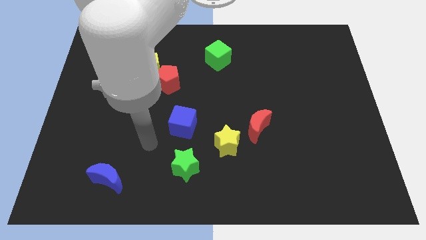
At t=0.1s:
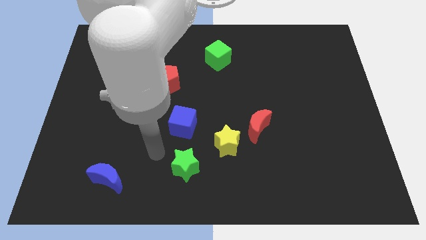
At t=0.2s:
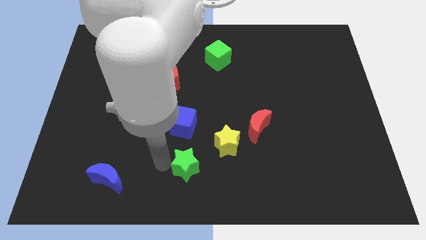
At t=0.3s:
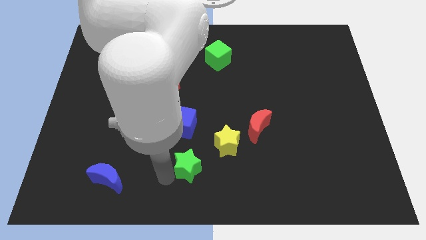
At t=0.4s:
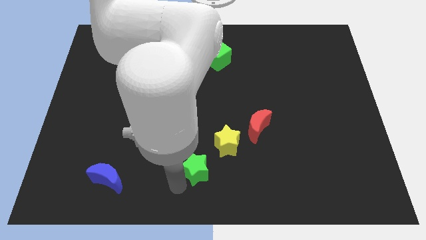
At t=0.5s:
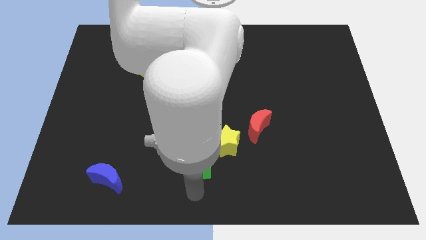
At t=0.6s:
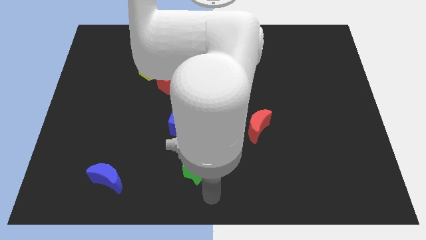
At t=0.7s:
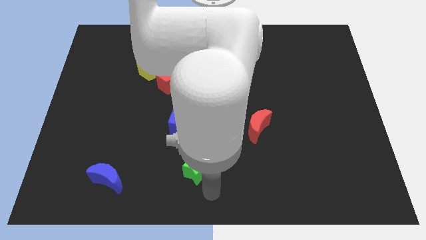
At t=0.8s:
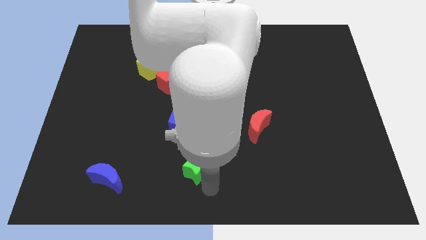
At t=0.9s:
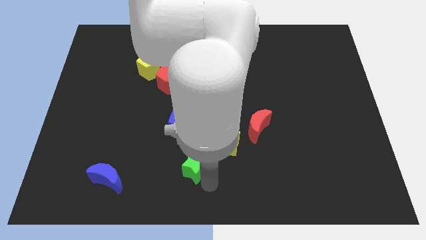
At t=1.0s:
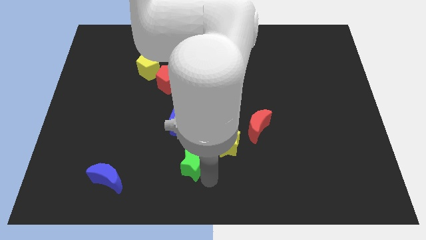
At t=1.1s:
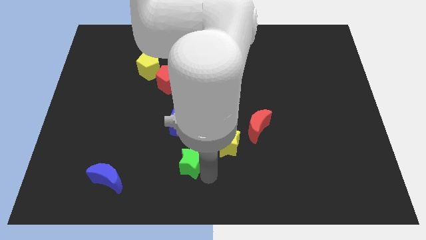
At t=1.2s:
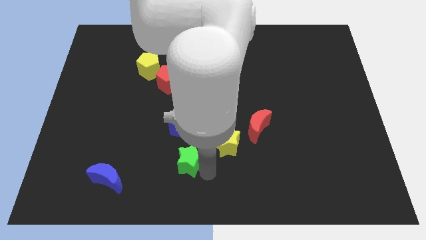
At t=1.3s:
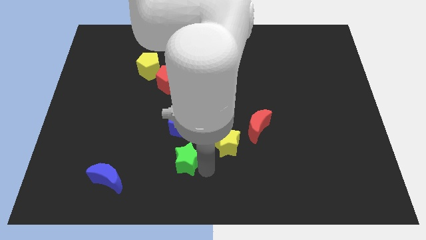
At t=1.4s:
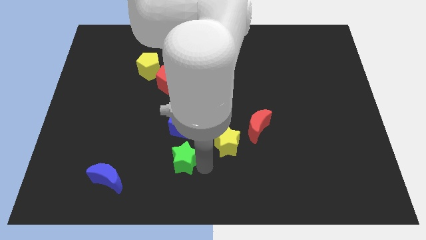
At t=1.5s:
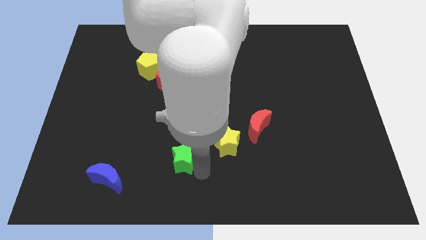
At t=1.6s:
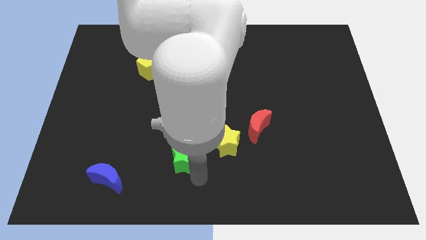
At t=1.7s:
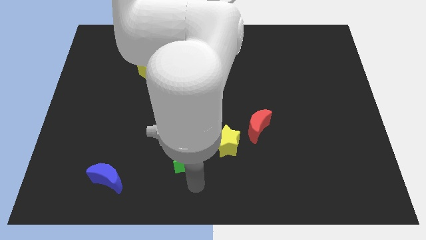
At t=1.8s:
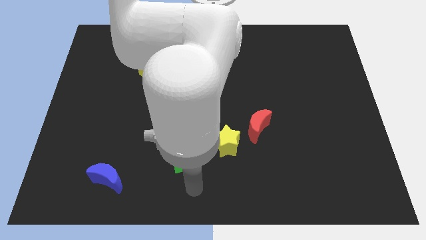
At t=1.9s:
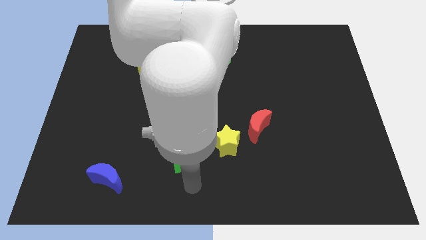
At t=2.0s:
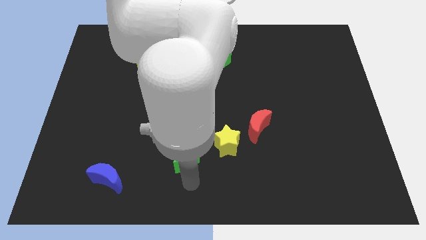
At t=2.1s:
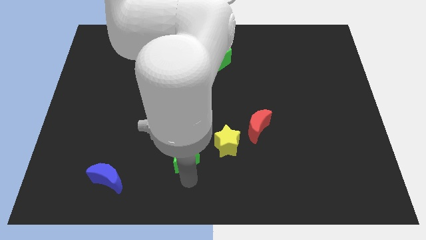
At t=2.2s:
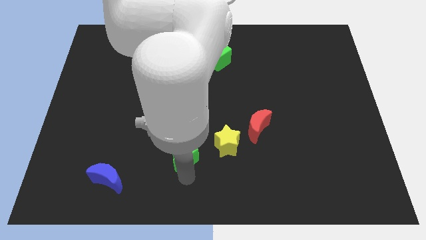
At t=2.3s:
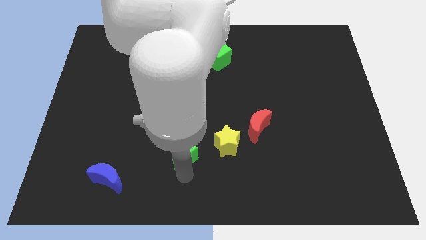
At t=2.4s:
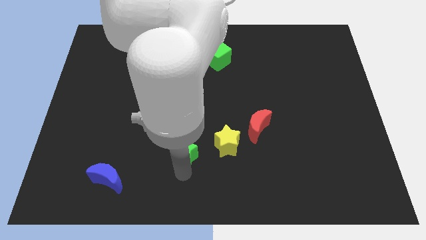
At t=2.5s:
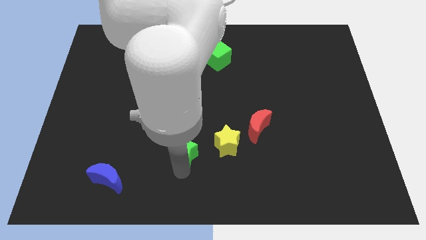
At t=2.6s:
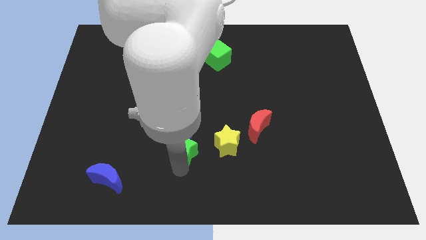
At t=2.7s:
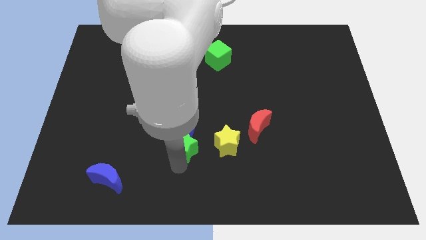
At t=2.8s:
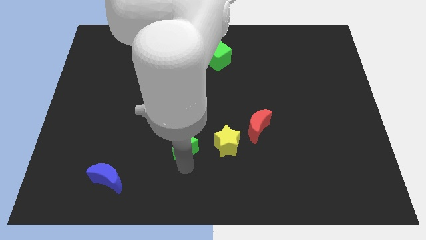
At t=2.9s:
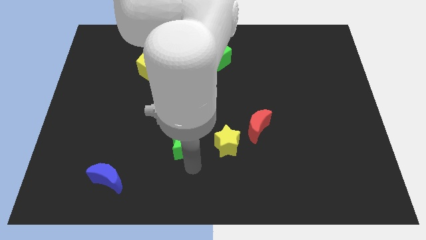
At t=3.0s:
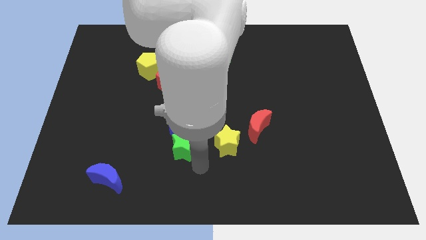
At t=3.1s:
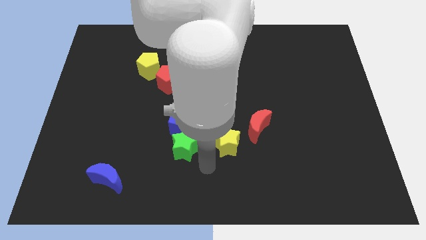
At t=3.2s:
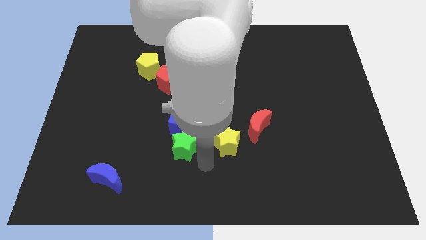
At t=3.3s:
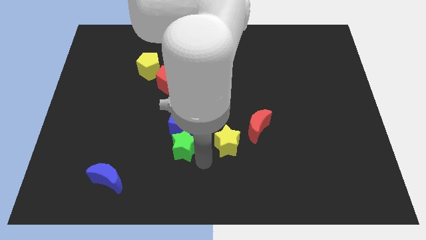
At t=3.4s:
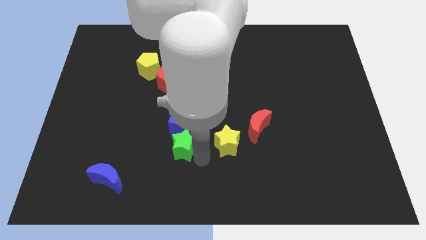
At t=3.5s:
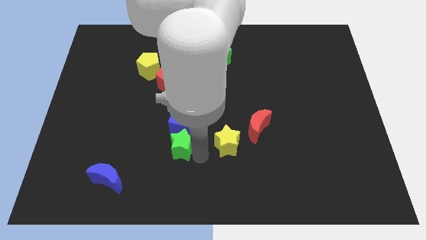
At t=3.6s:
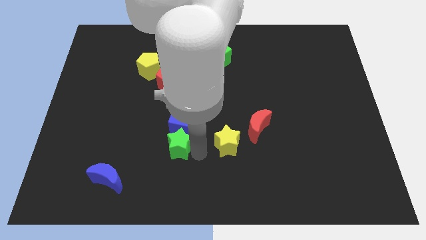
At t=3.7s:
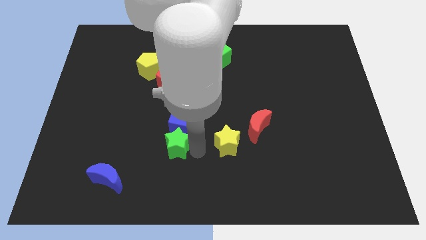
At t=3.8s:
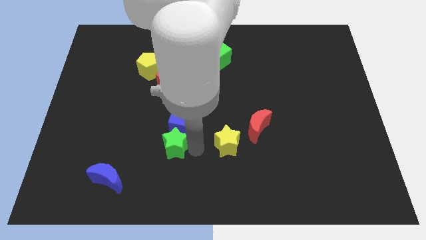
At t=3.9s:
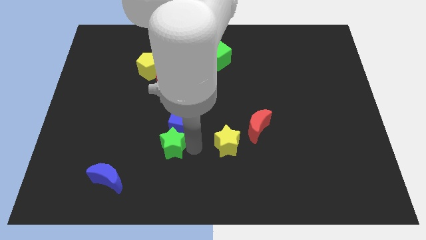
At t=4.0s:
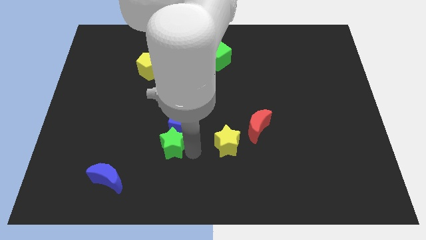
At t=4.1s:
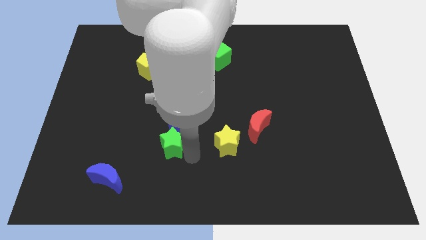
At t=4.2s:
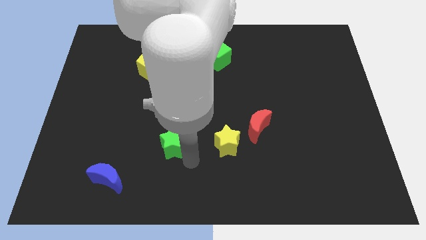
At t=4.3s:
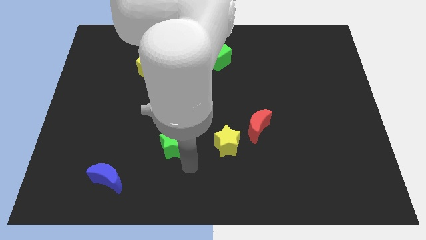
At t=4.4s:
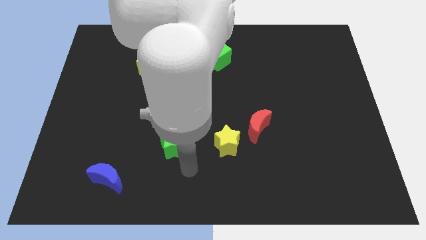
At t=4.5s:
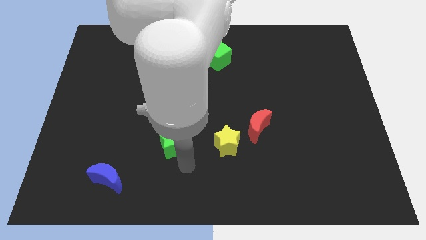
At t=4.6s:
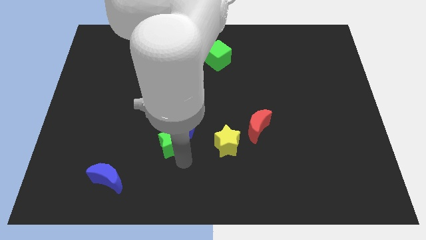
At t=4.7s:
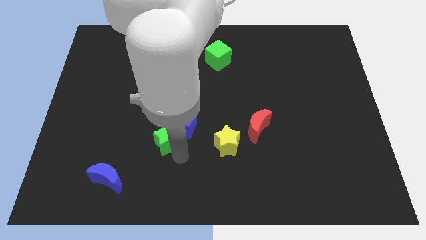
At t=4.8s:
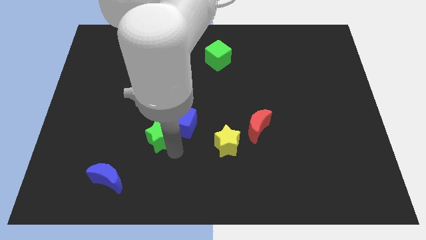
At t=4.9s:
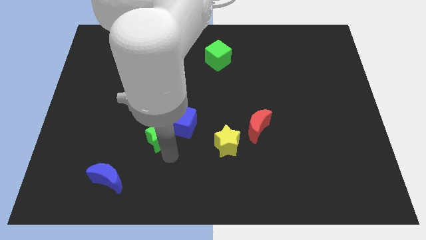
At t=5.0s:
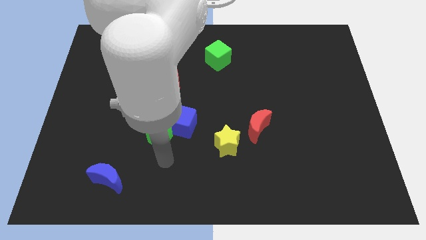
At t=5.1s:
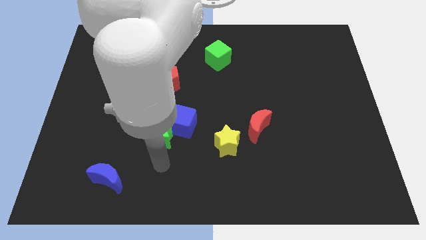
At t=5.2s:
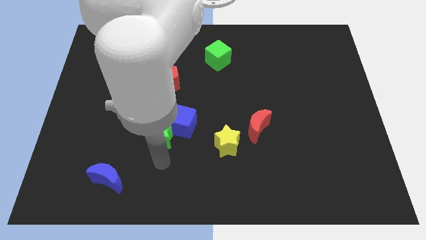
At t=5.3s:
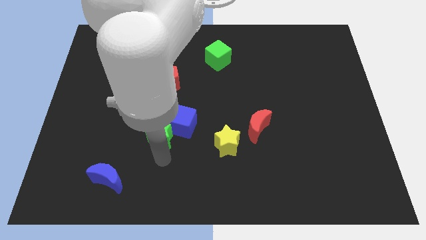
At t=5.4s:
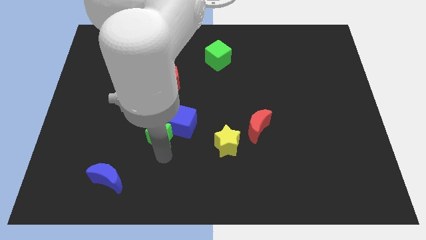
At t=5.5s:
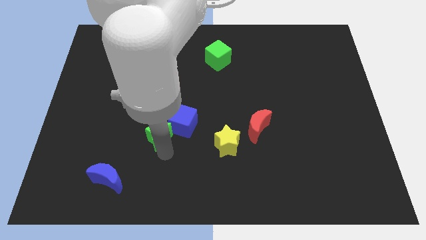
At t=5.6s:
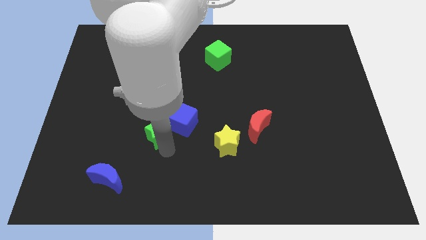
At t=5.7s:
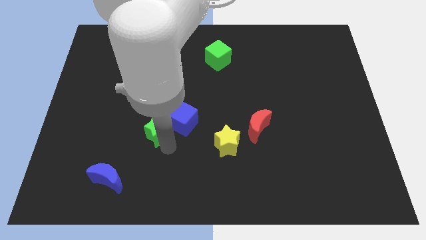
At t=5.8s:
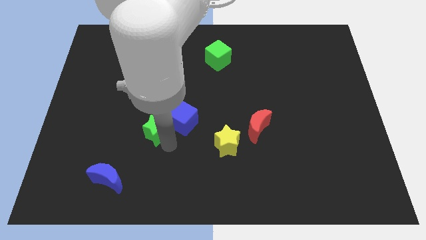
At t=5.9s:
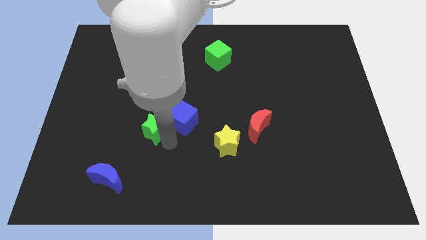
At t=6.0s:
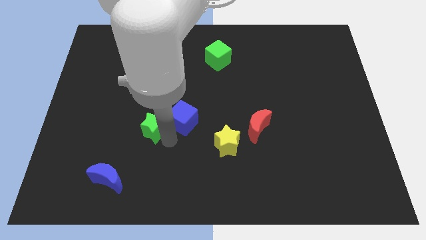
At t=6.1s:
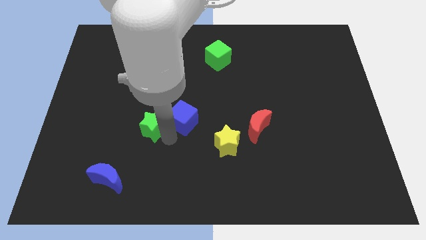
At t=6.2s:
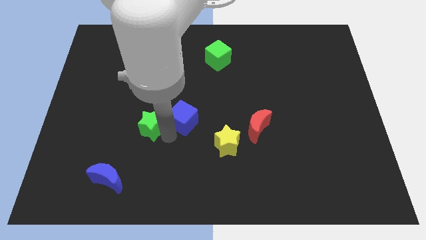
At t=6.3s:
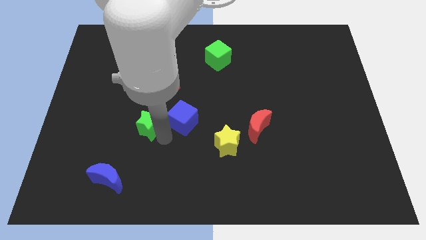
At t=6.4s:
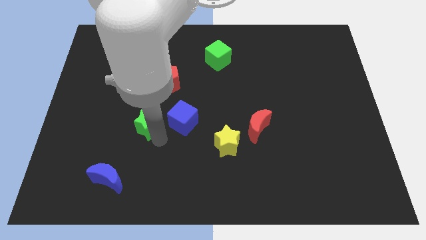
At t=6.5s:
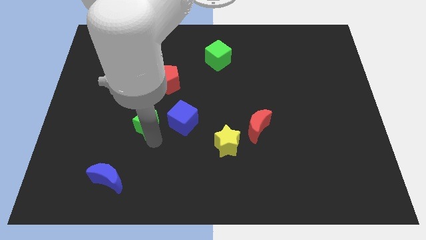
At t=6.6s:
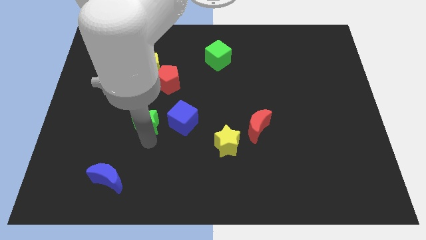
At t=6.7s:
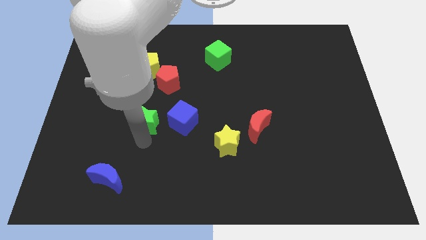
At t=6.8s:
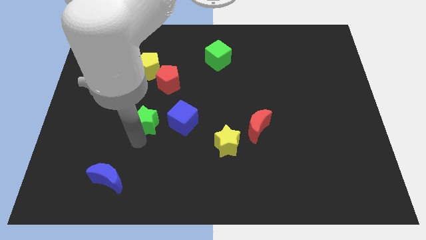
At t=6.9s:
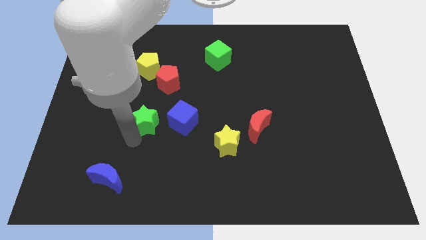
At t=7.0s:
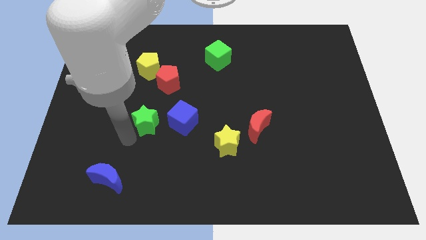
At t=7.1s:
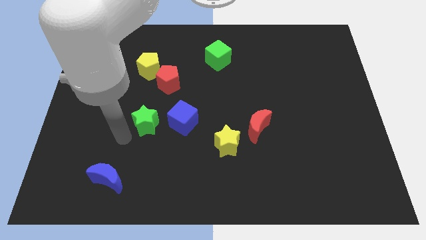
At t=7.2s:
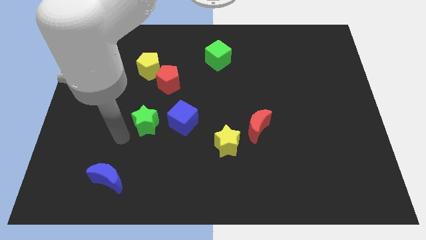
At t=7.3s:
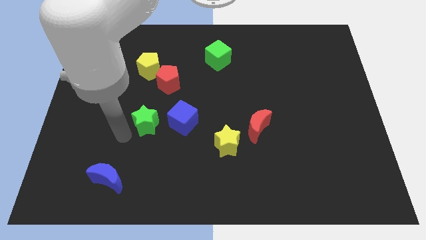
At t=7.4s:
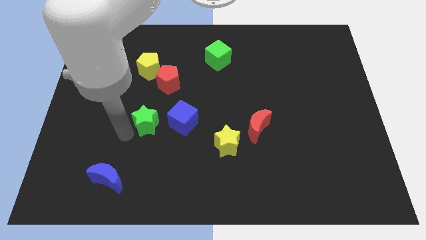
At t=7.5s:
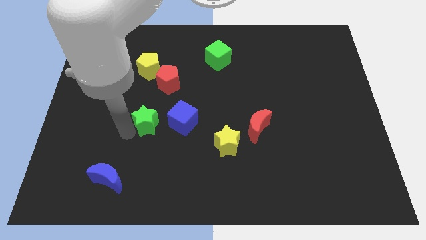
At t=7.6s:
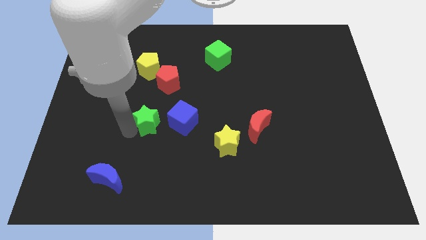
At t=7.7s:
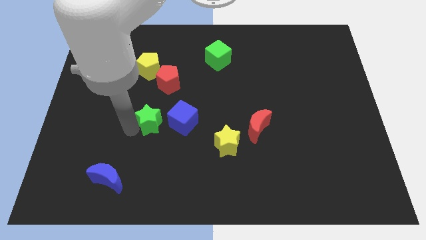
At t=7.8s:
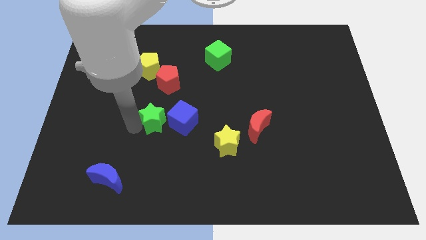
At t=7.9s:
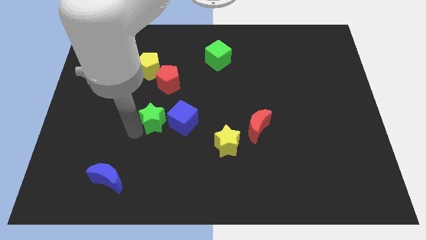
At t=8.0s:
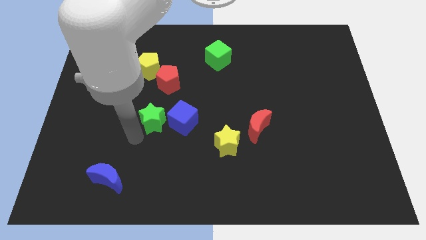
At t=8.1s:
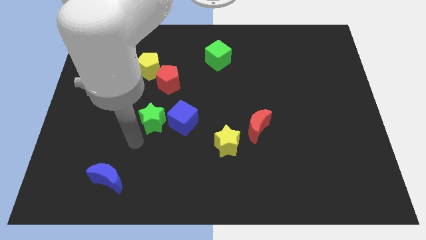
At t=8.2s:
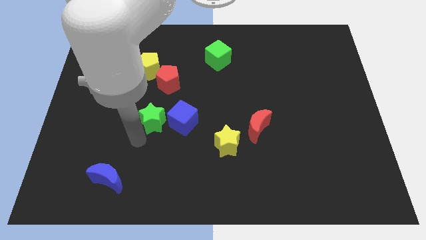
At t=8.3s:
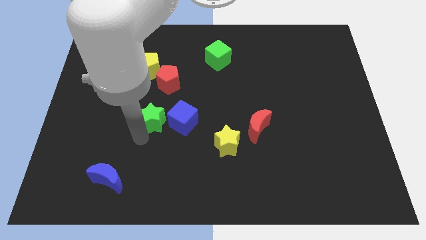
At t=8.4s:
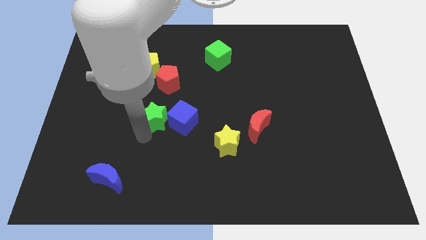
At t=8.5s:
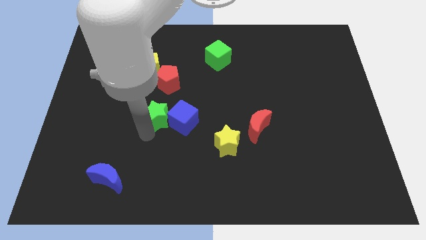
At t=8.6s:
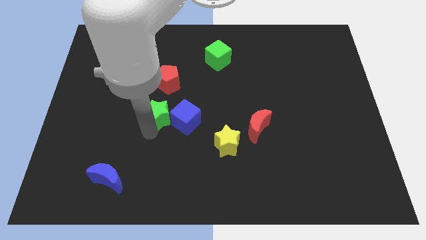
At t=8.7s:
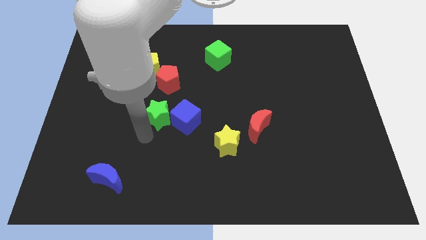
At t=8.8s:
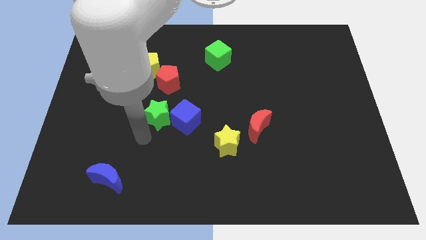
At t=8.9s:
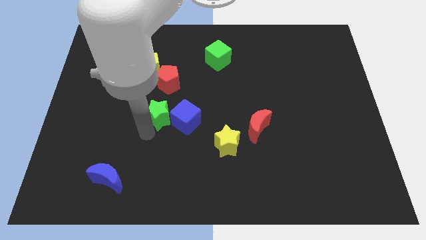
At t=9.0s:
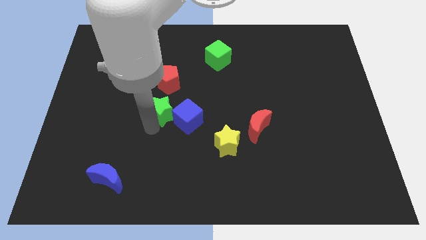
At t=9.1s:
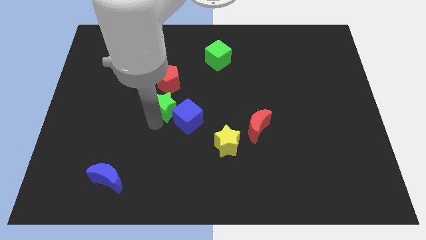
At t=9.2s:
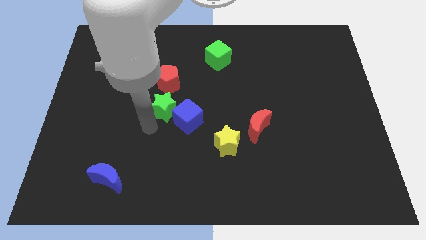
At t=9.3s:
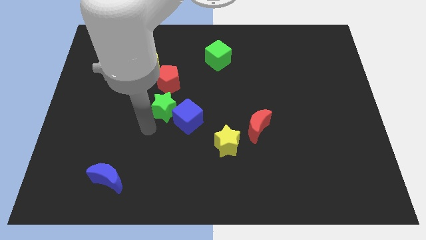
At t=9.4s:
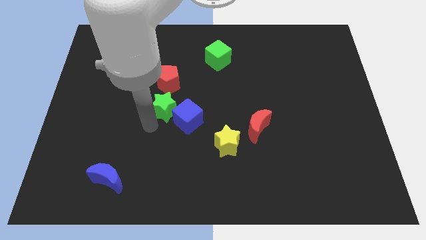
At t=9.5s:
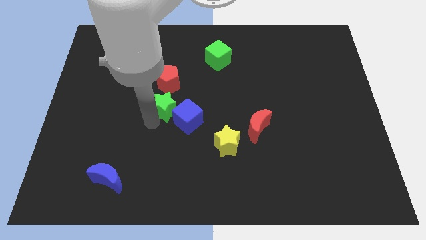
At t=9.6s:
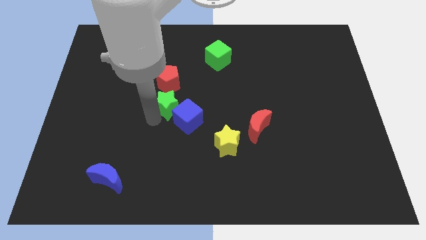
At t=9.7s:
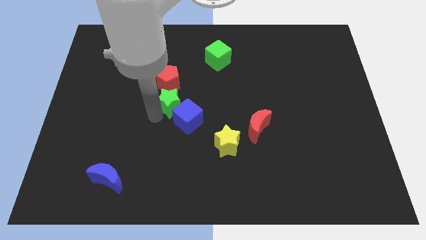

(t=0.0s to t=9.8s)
slide the green star to the top of the blue cube
